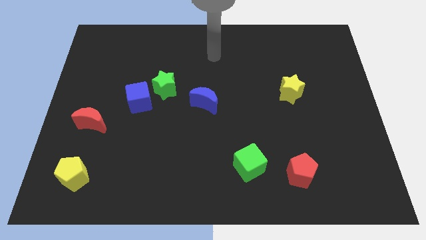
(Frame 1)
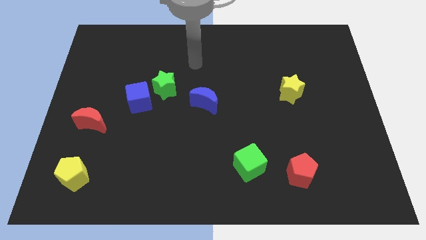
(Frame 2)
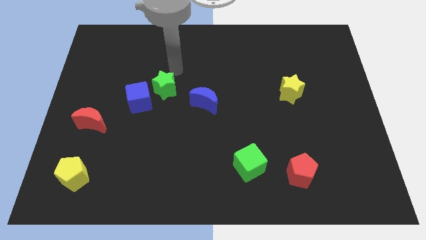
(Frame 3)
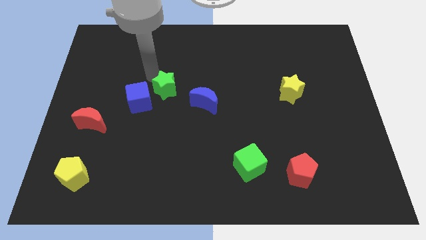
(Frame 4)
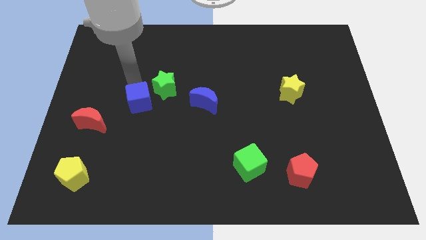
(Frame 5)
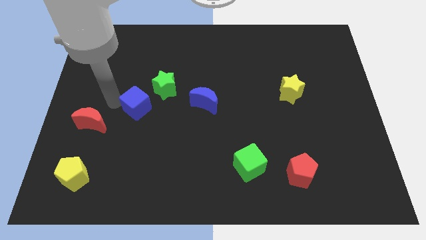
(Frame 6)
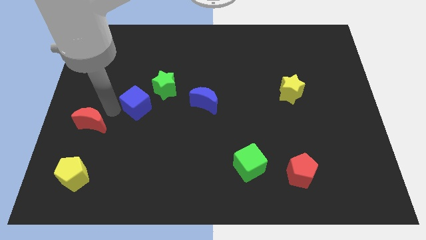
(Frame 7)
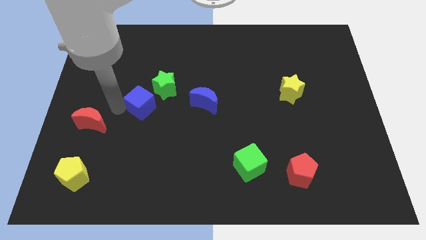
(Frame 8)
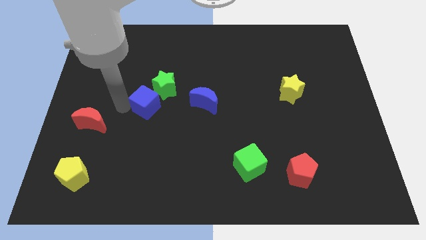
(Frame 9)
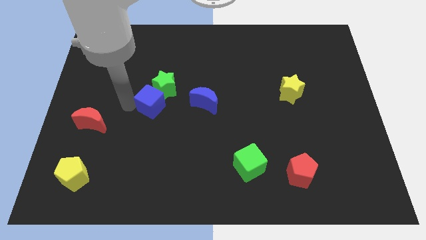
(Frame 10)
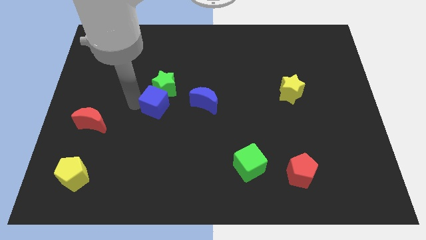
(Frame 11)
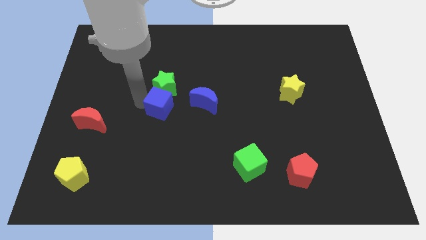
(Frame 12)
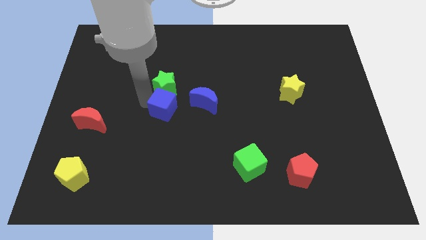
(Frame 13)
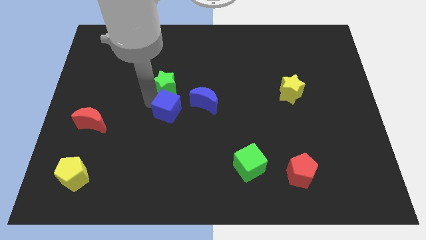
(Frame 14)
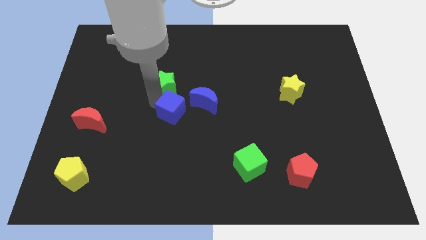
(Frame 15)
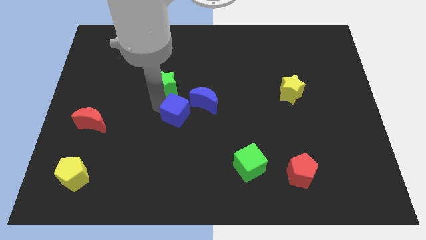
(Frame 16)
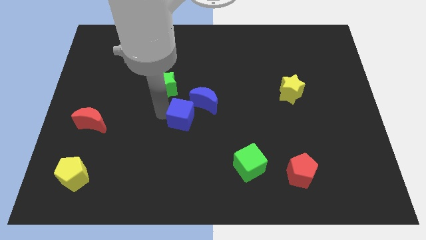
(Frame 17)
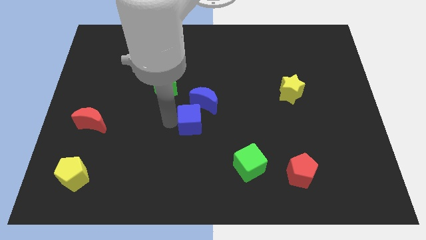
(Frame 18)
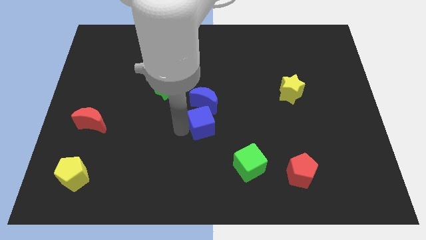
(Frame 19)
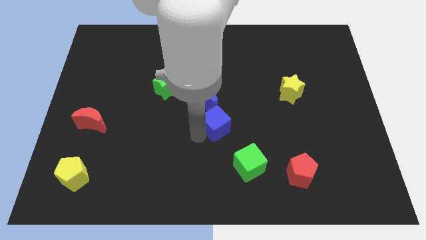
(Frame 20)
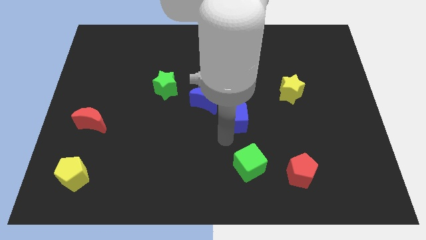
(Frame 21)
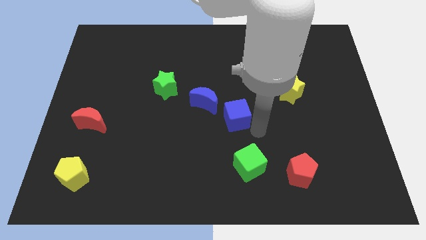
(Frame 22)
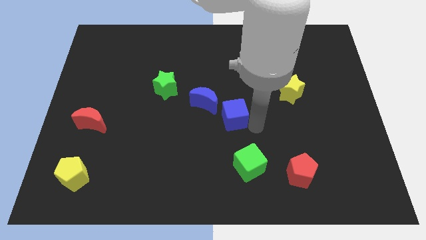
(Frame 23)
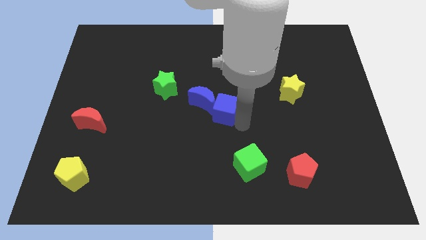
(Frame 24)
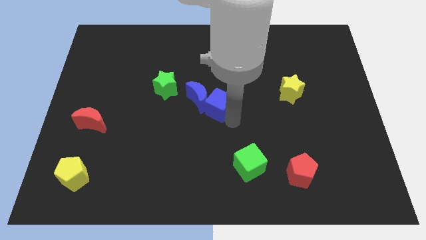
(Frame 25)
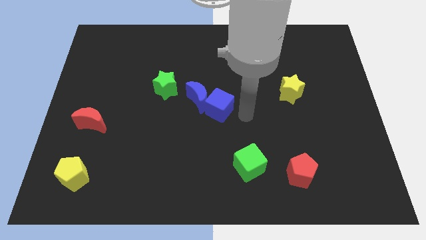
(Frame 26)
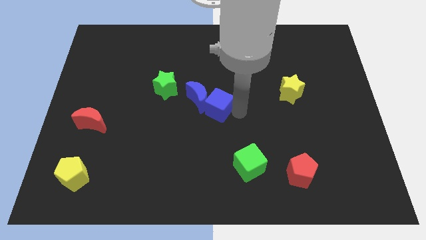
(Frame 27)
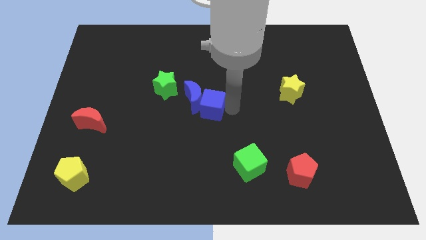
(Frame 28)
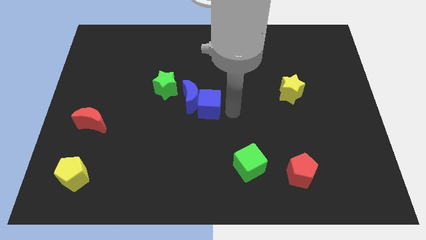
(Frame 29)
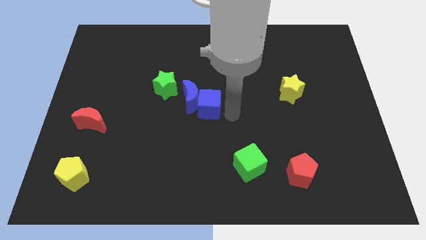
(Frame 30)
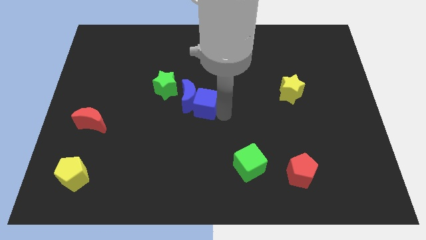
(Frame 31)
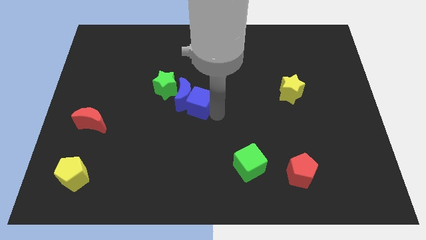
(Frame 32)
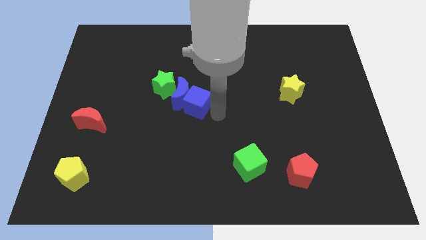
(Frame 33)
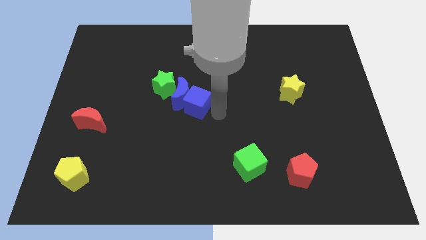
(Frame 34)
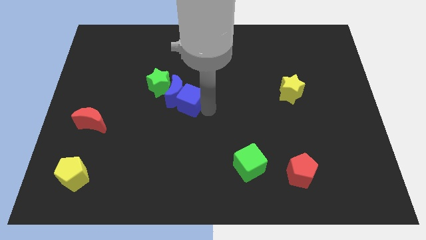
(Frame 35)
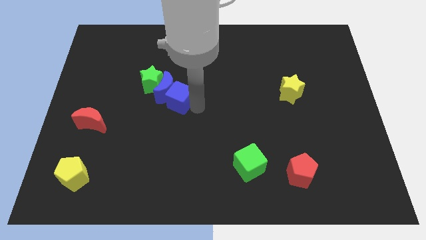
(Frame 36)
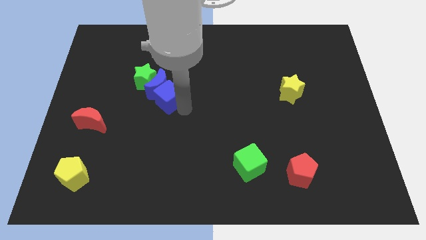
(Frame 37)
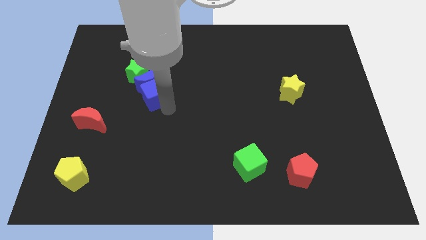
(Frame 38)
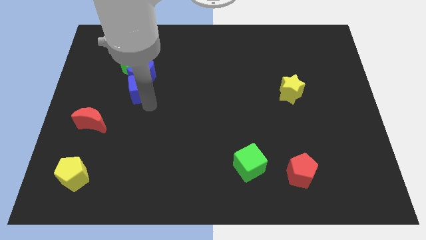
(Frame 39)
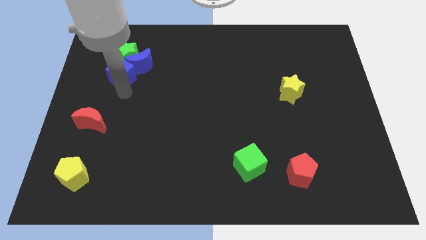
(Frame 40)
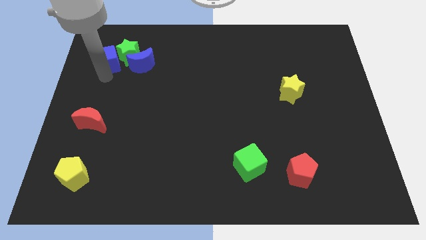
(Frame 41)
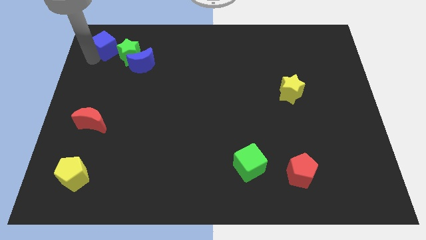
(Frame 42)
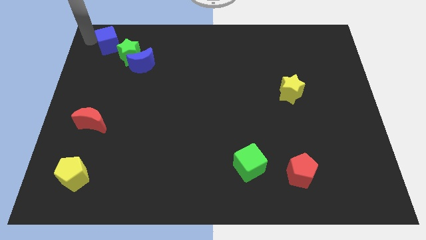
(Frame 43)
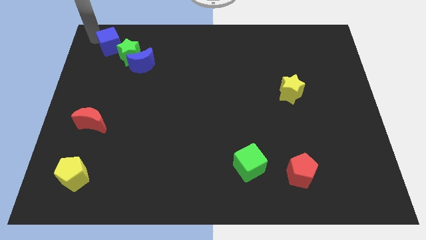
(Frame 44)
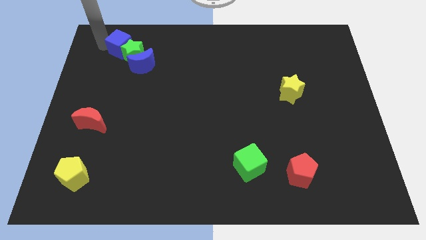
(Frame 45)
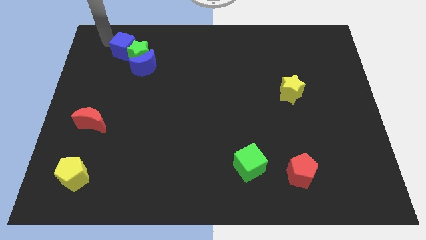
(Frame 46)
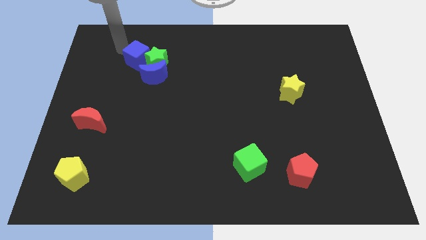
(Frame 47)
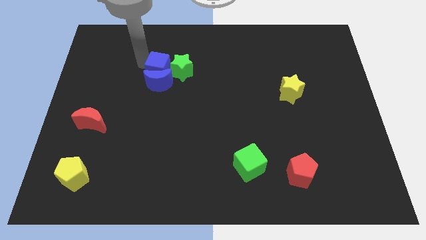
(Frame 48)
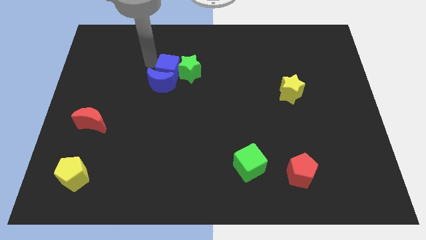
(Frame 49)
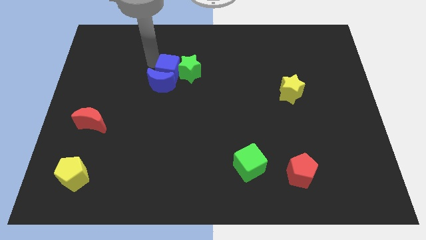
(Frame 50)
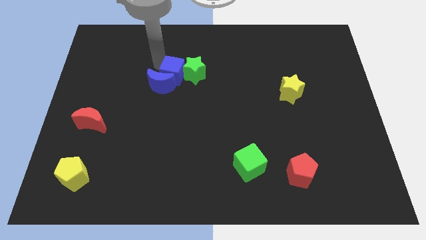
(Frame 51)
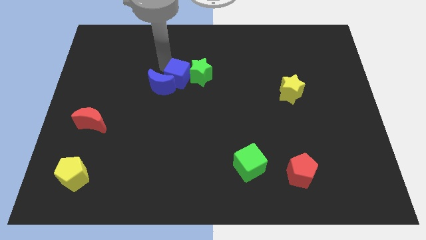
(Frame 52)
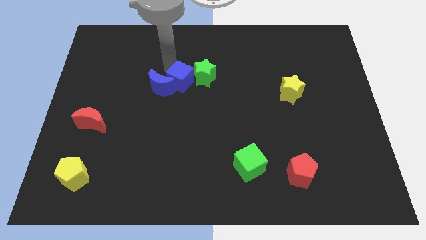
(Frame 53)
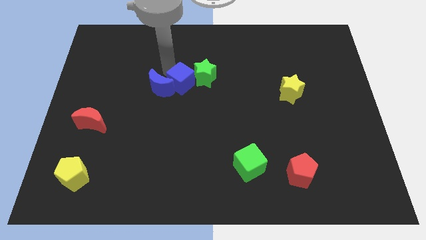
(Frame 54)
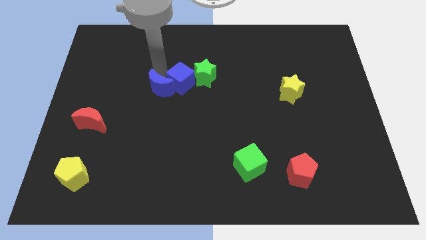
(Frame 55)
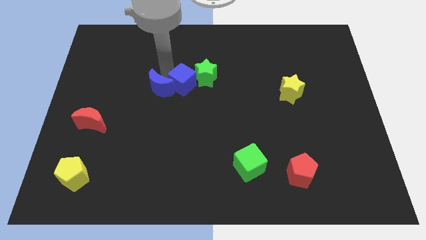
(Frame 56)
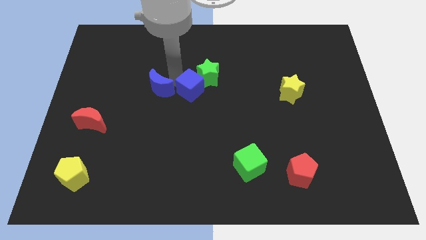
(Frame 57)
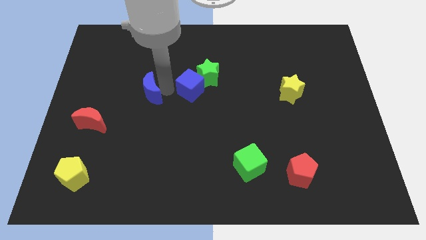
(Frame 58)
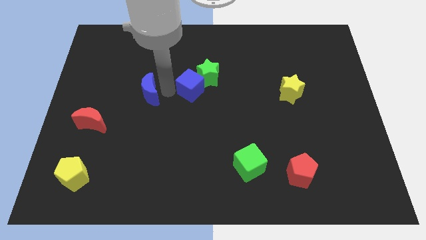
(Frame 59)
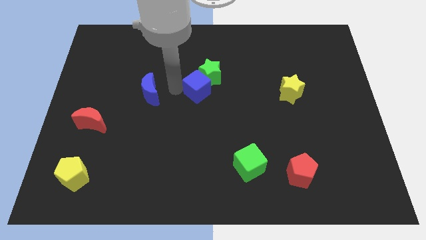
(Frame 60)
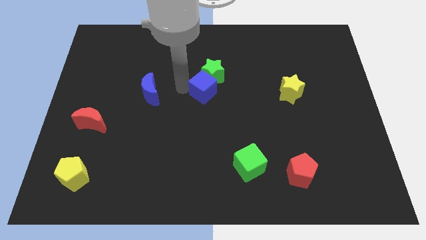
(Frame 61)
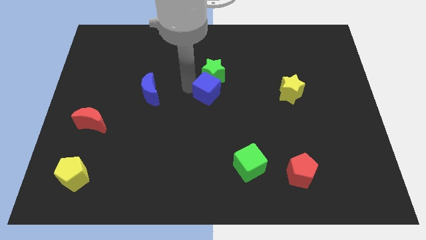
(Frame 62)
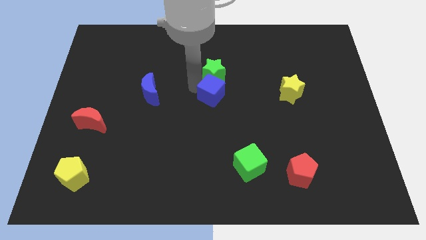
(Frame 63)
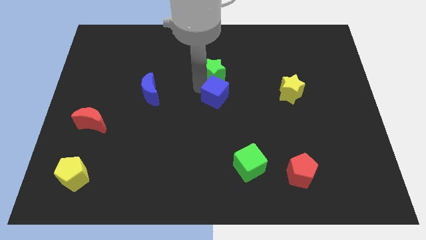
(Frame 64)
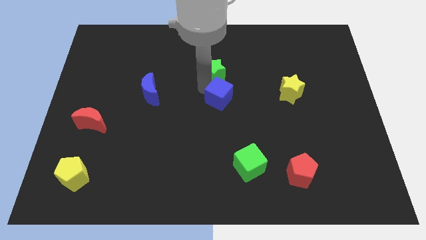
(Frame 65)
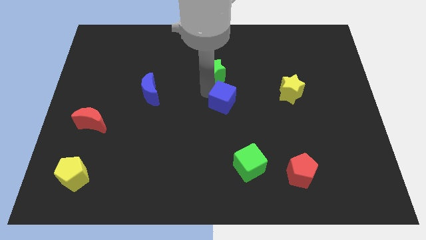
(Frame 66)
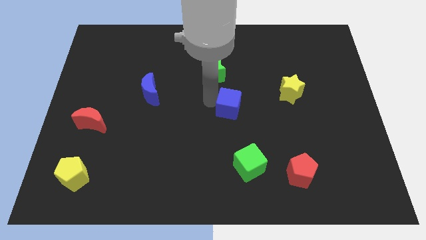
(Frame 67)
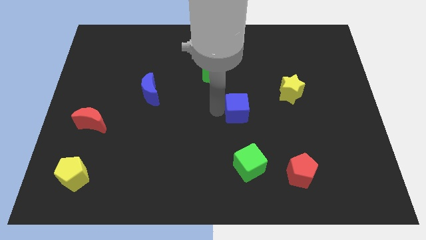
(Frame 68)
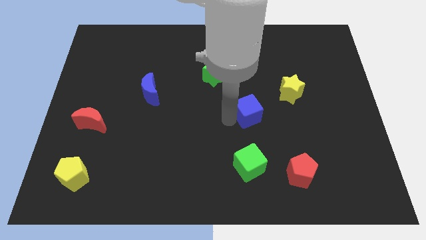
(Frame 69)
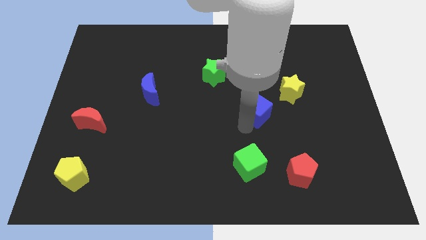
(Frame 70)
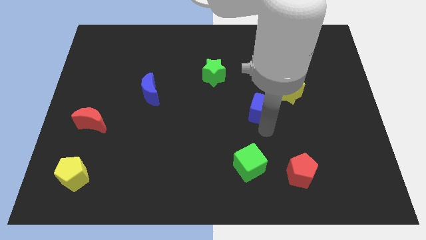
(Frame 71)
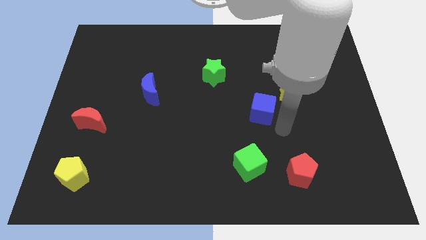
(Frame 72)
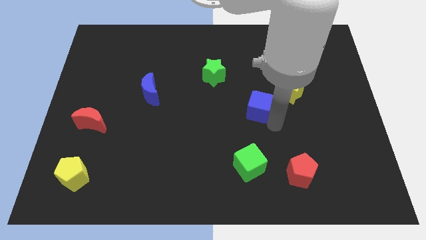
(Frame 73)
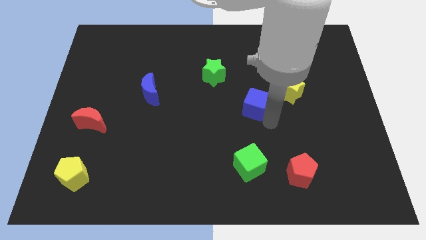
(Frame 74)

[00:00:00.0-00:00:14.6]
push the blue cube to the left of the yellow star

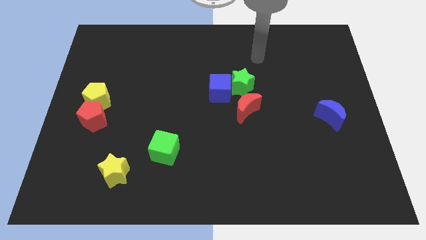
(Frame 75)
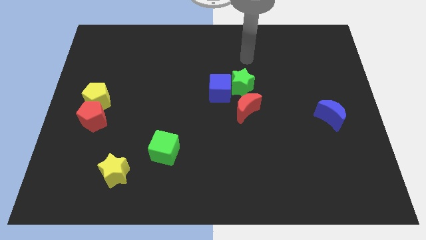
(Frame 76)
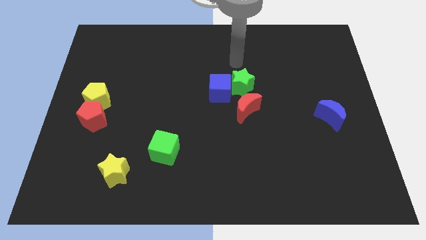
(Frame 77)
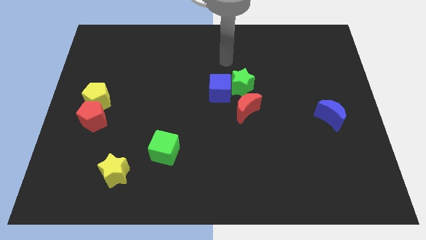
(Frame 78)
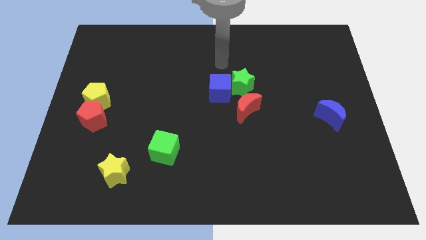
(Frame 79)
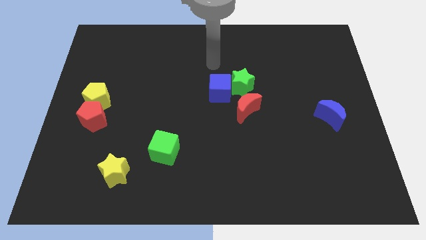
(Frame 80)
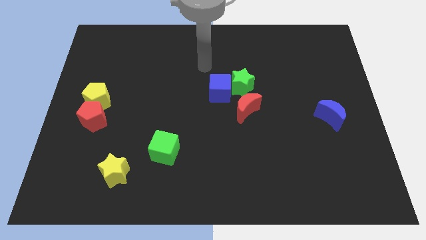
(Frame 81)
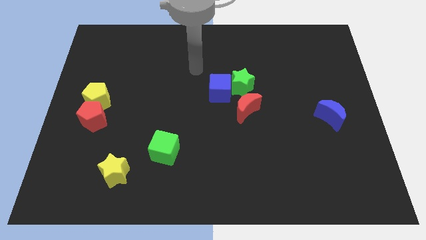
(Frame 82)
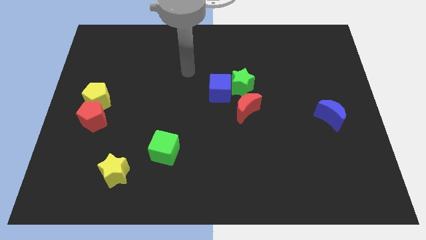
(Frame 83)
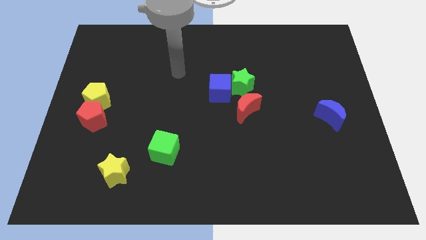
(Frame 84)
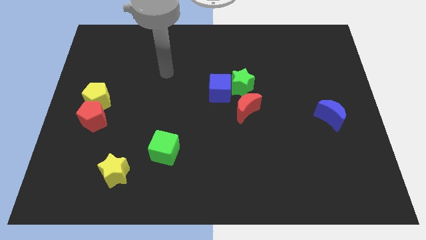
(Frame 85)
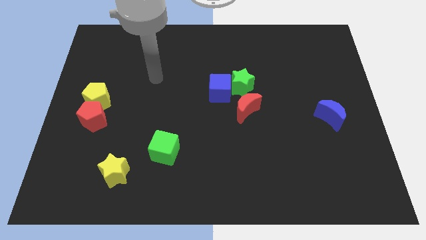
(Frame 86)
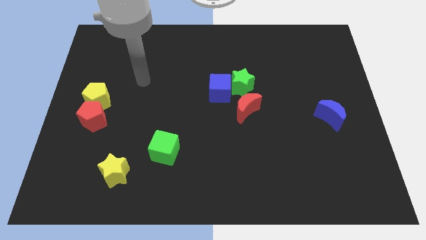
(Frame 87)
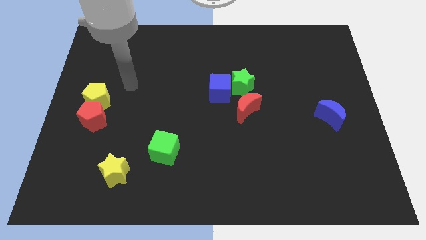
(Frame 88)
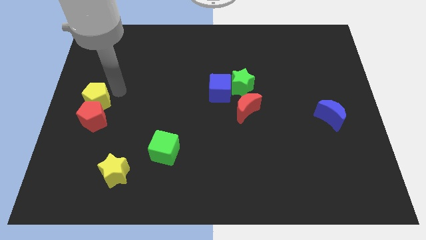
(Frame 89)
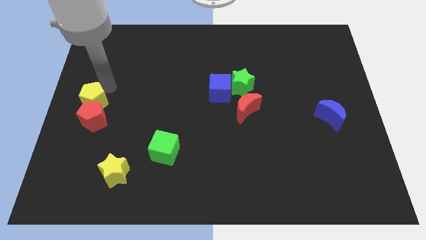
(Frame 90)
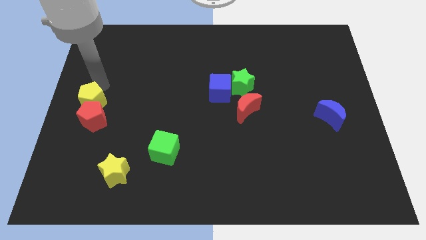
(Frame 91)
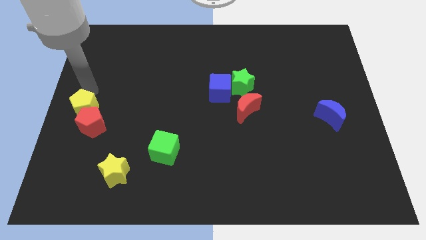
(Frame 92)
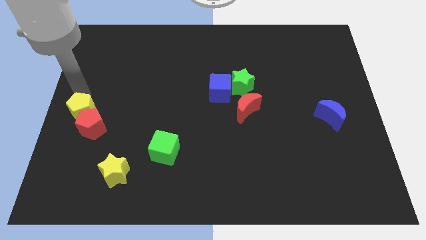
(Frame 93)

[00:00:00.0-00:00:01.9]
move the red pentagon just right of the yellow pentagon
